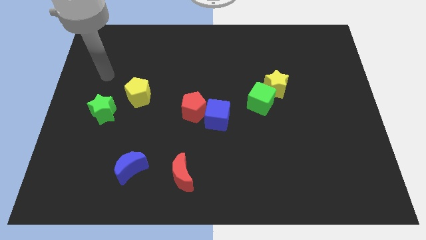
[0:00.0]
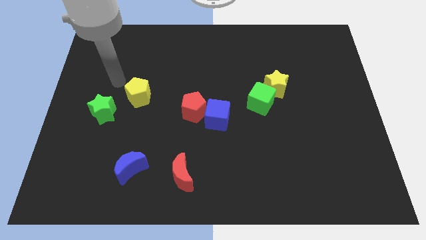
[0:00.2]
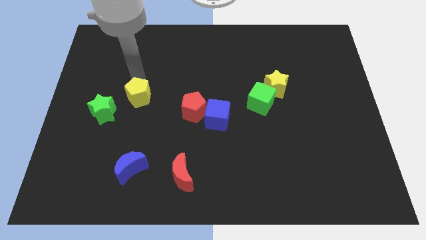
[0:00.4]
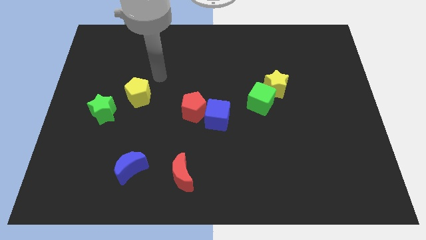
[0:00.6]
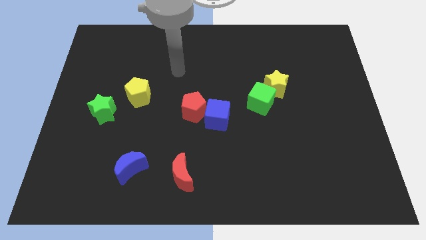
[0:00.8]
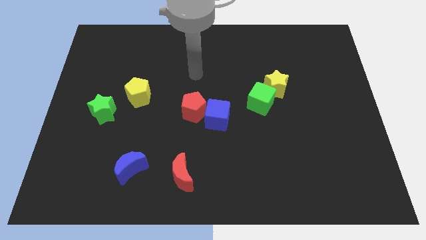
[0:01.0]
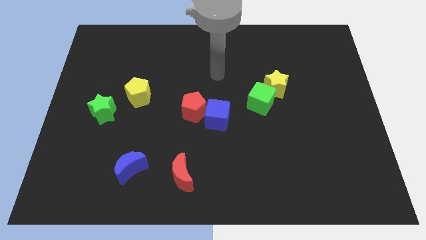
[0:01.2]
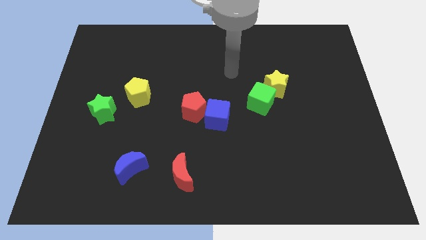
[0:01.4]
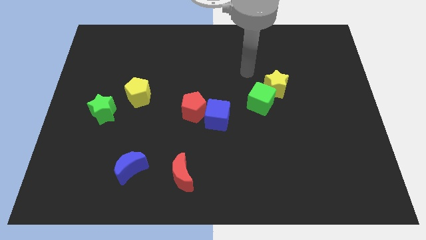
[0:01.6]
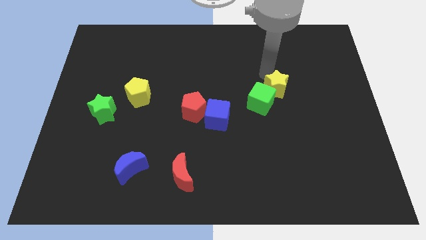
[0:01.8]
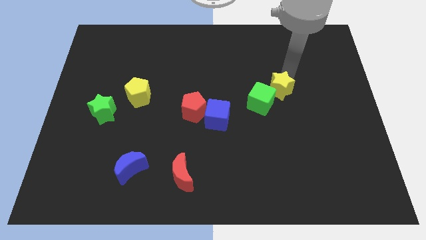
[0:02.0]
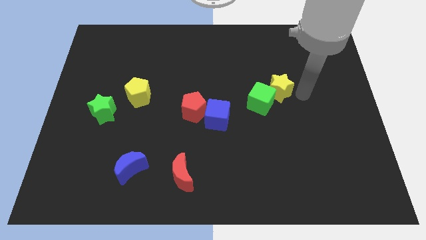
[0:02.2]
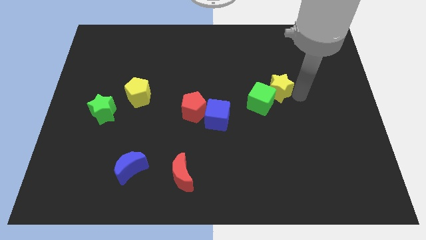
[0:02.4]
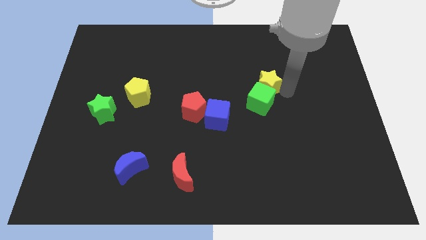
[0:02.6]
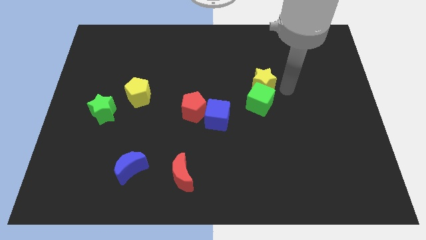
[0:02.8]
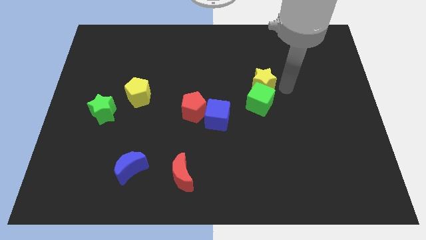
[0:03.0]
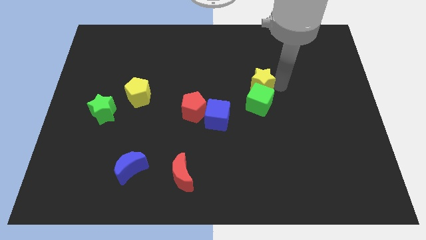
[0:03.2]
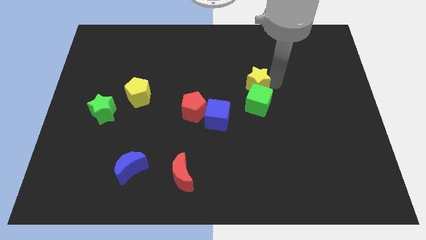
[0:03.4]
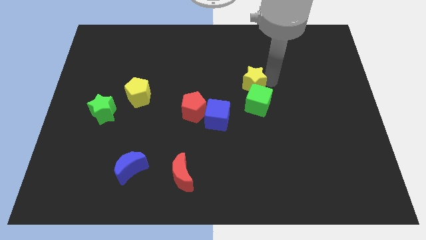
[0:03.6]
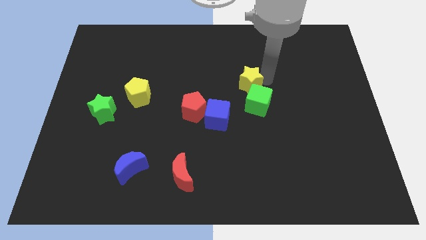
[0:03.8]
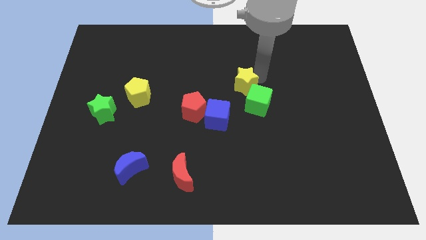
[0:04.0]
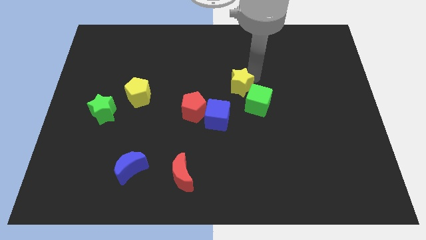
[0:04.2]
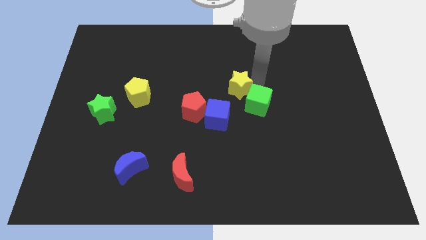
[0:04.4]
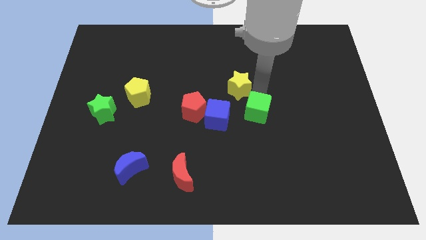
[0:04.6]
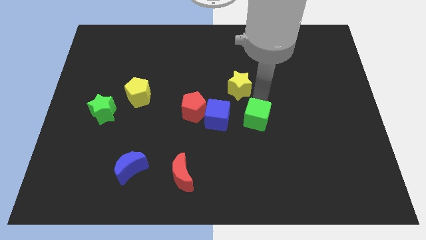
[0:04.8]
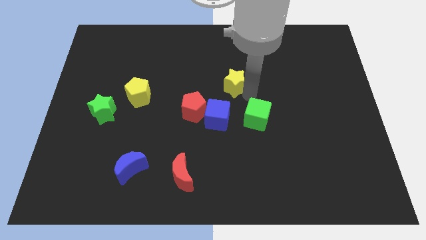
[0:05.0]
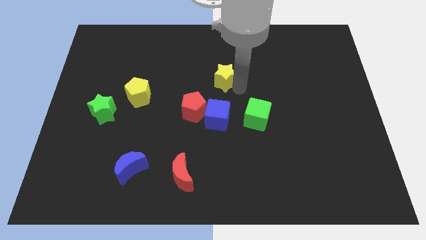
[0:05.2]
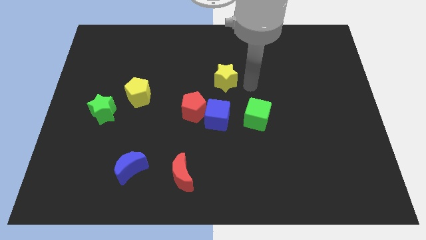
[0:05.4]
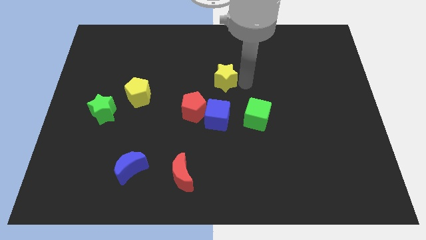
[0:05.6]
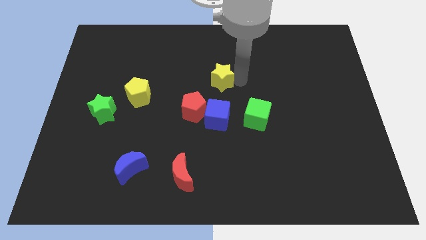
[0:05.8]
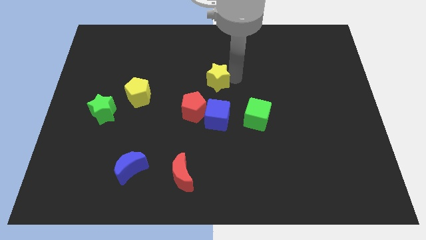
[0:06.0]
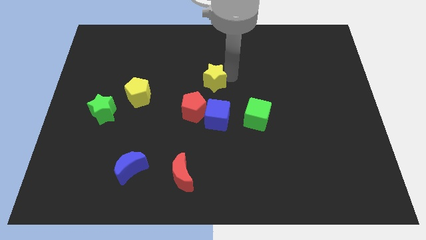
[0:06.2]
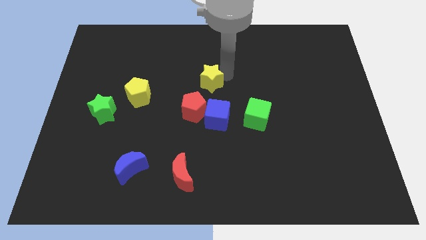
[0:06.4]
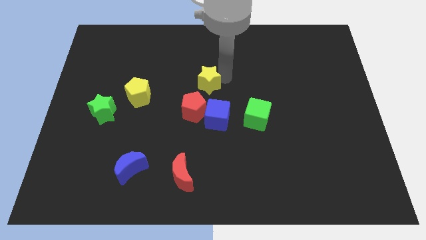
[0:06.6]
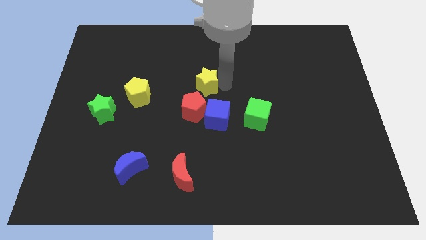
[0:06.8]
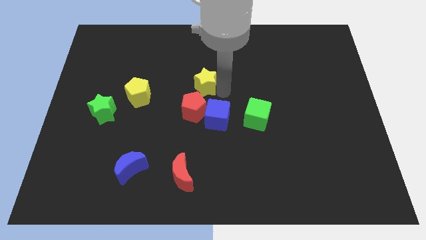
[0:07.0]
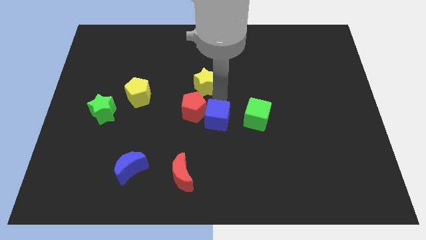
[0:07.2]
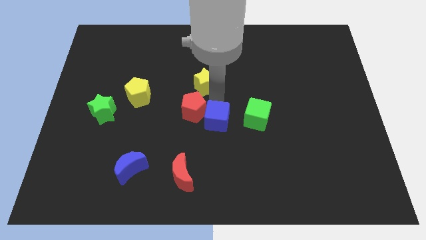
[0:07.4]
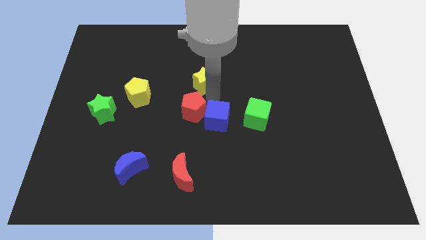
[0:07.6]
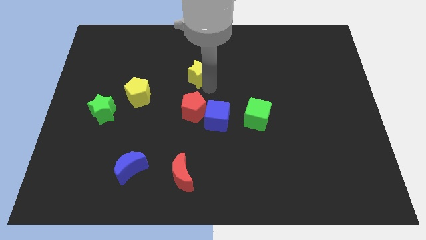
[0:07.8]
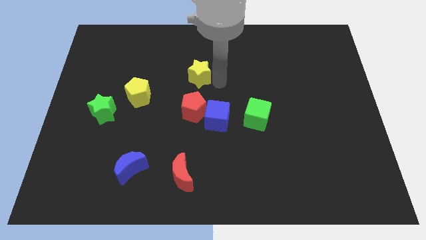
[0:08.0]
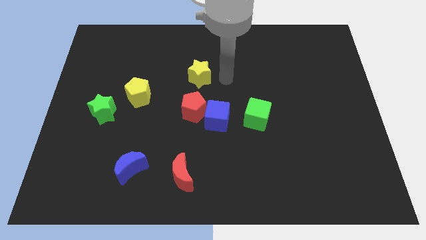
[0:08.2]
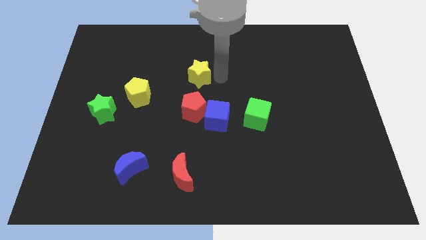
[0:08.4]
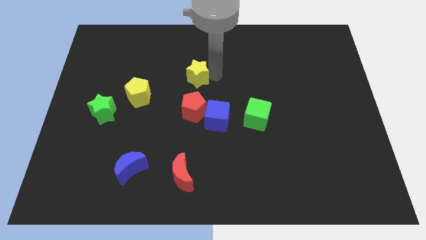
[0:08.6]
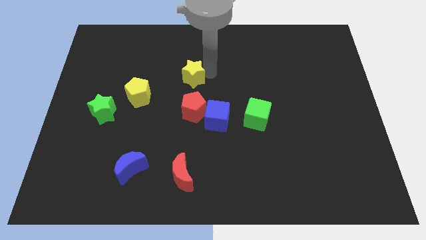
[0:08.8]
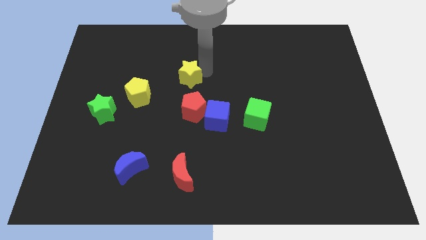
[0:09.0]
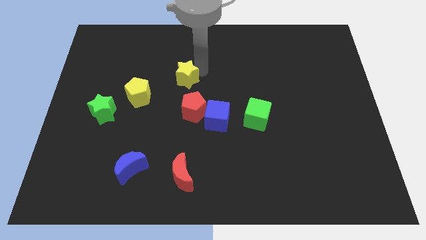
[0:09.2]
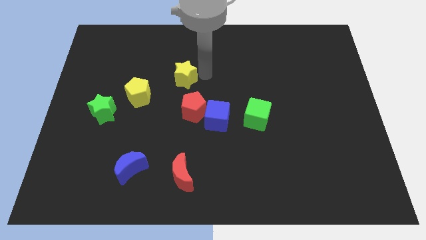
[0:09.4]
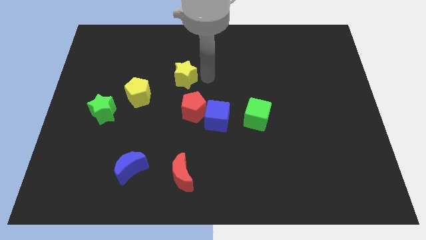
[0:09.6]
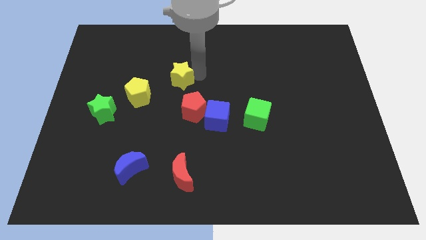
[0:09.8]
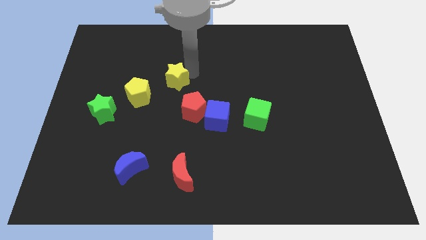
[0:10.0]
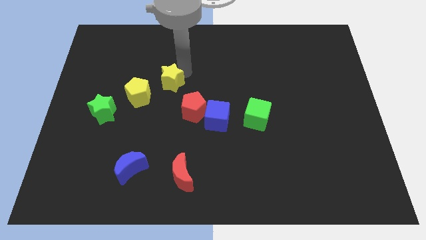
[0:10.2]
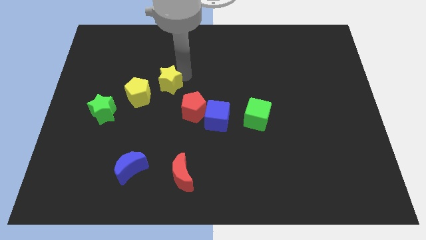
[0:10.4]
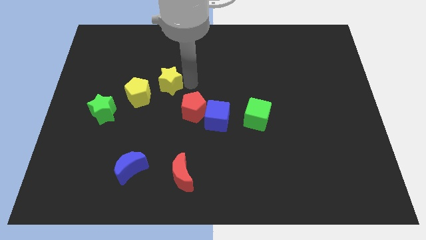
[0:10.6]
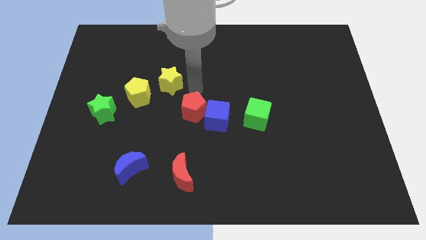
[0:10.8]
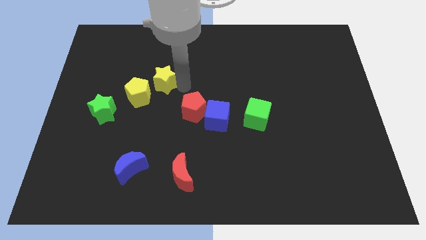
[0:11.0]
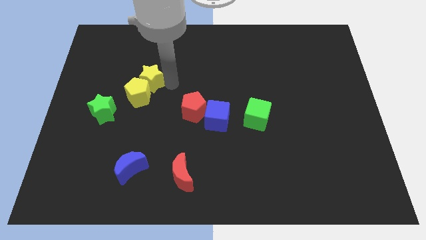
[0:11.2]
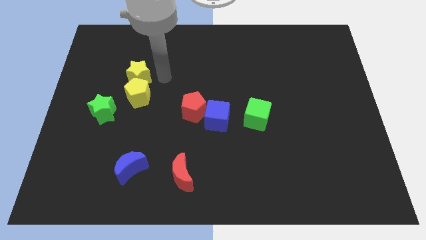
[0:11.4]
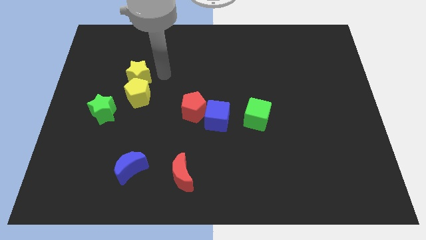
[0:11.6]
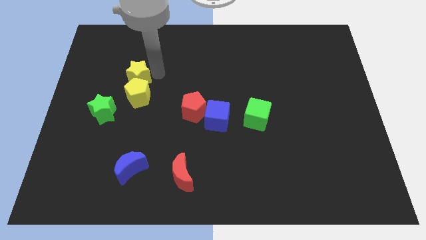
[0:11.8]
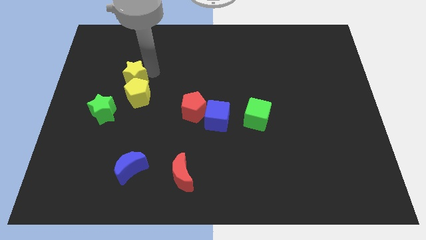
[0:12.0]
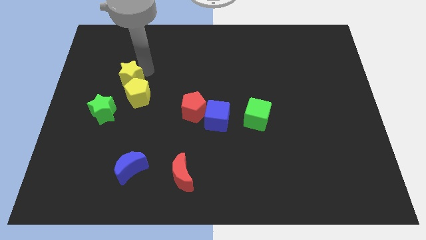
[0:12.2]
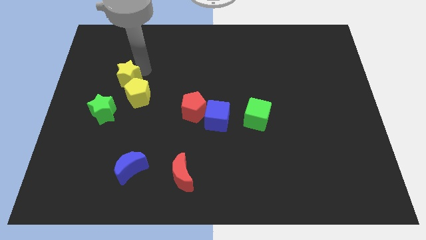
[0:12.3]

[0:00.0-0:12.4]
move the yellow star above the green star

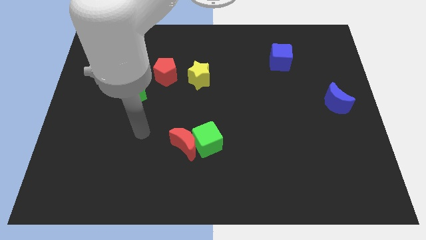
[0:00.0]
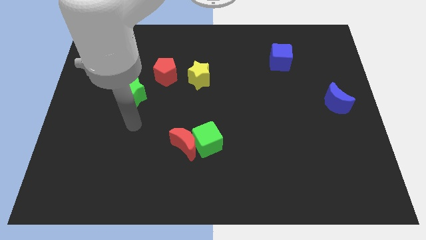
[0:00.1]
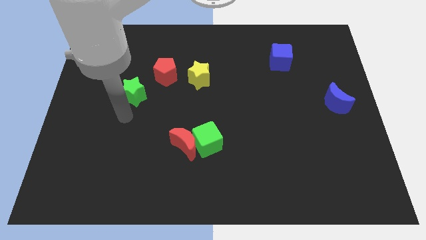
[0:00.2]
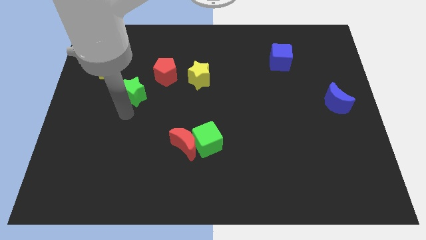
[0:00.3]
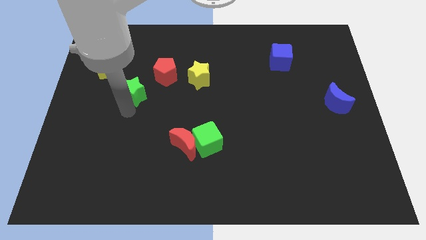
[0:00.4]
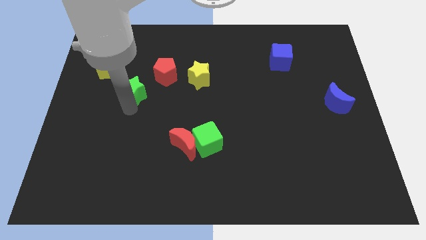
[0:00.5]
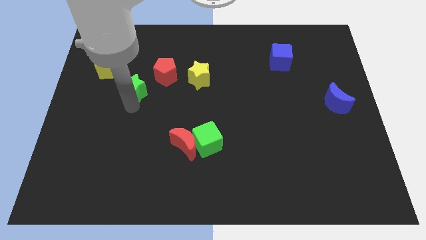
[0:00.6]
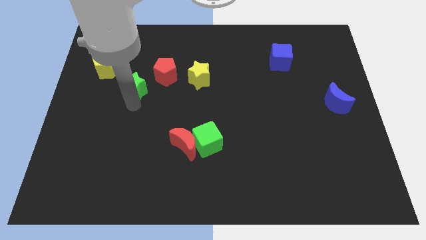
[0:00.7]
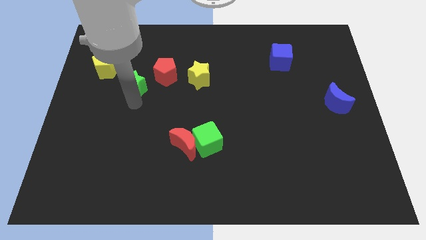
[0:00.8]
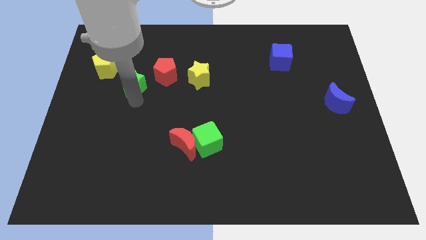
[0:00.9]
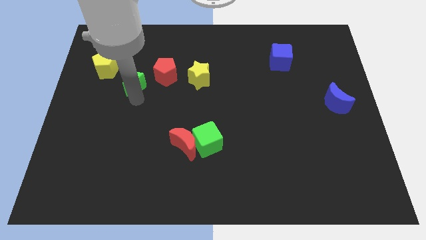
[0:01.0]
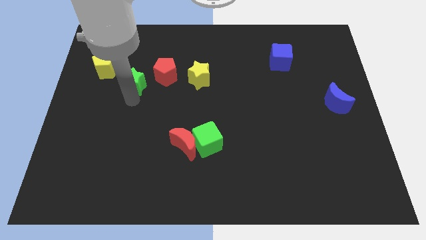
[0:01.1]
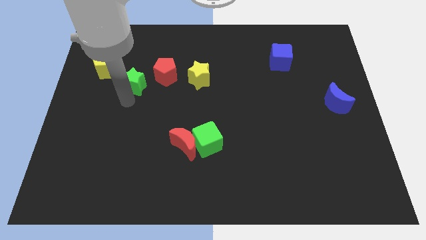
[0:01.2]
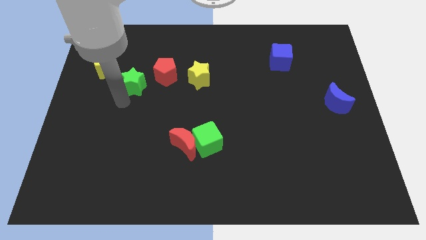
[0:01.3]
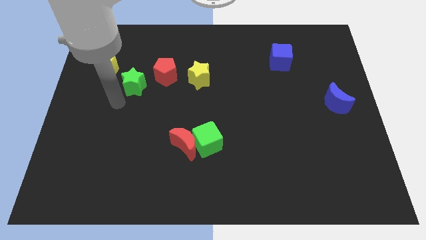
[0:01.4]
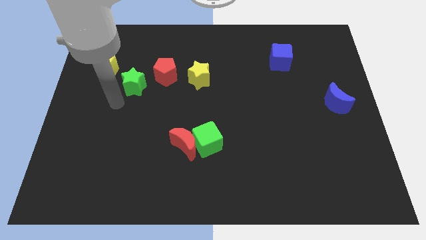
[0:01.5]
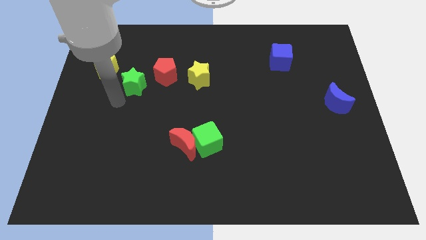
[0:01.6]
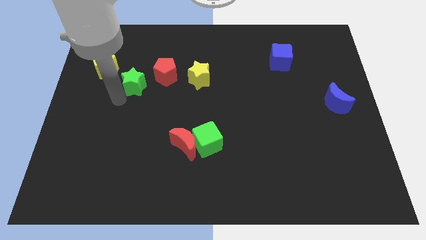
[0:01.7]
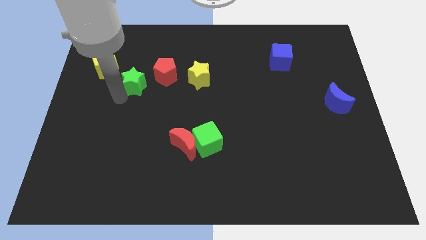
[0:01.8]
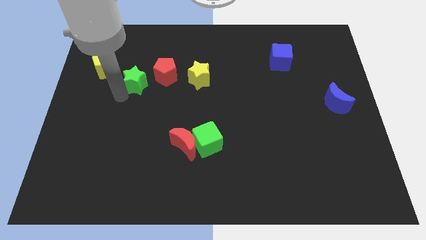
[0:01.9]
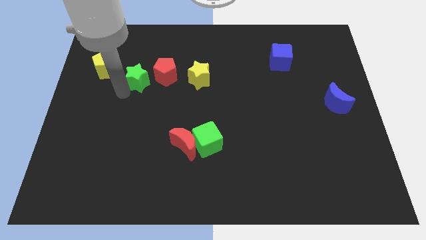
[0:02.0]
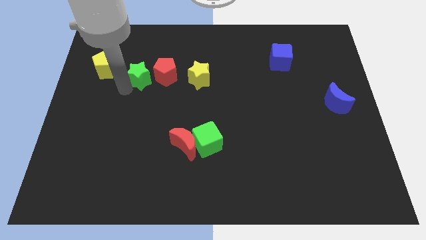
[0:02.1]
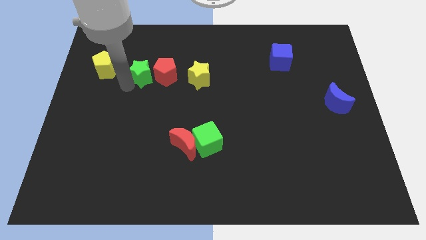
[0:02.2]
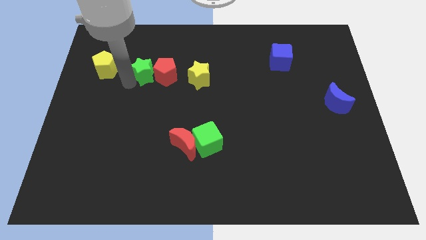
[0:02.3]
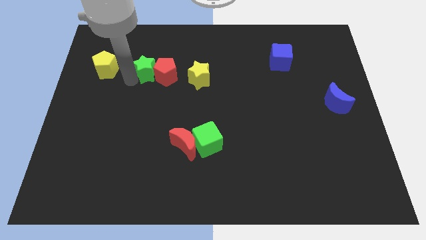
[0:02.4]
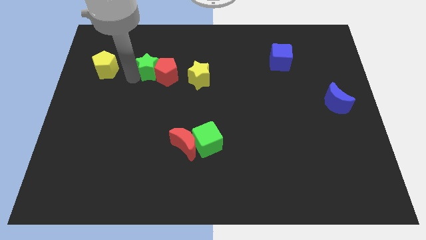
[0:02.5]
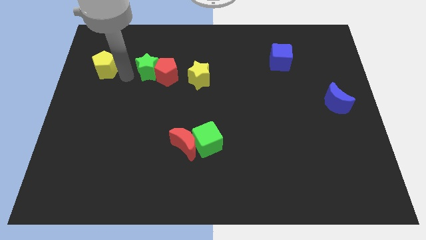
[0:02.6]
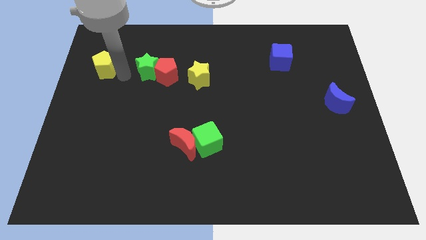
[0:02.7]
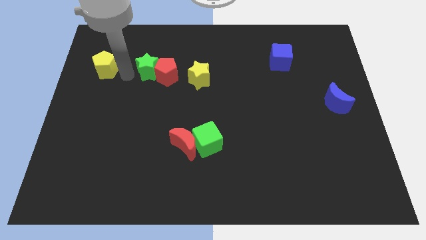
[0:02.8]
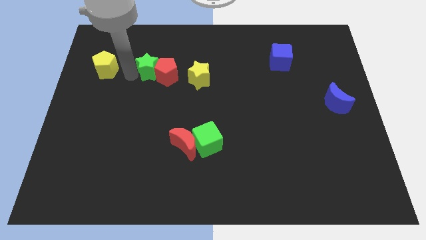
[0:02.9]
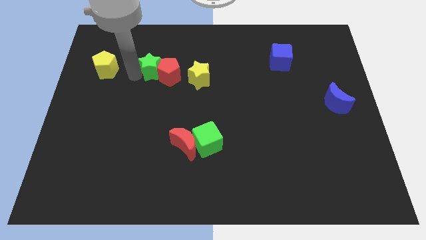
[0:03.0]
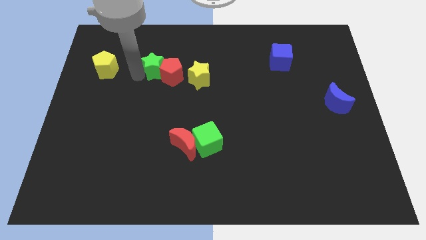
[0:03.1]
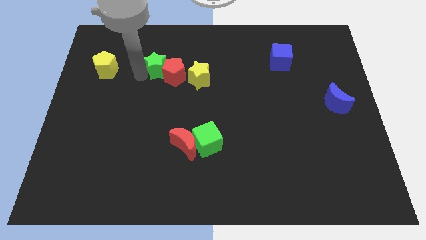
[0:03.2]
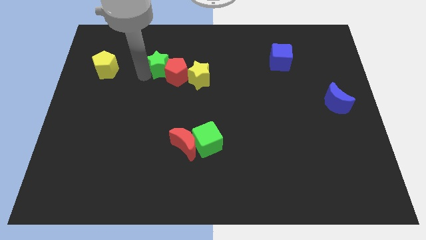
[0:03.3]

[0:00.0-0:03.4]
move the green star to the top left of the yellow star
